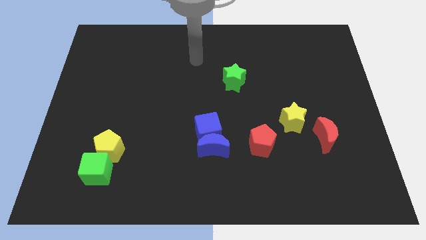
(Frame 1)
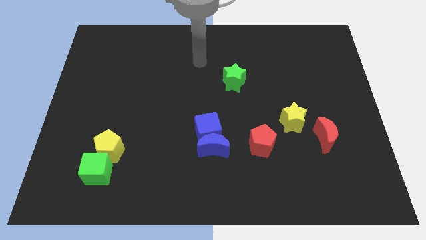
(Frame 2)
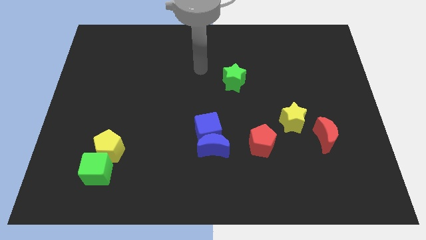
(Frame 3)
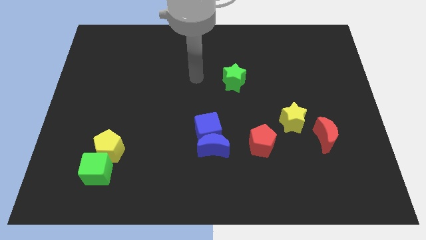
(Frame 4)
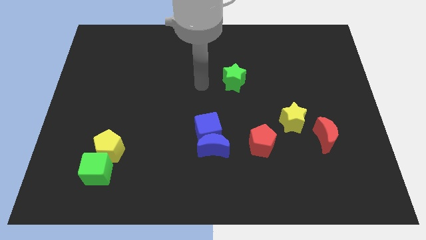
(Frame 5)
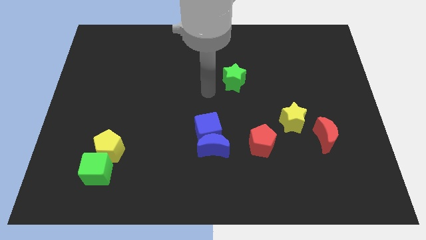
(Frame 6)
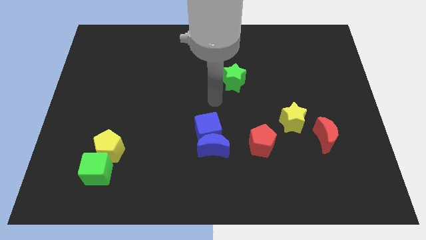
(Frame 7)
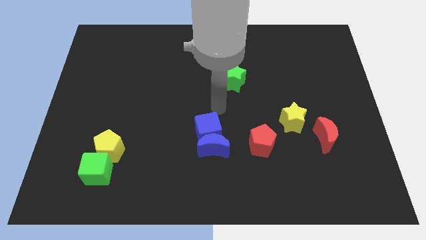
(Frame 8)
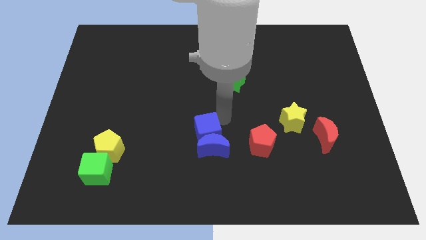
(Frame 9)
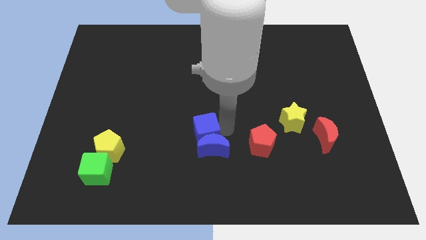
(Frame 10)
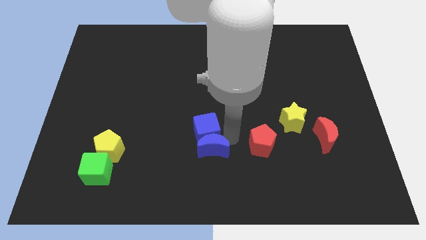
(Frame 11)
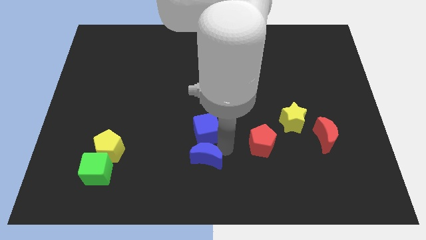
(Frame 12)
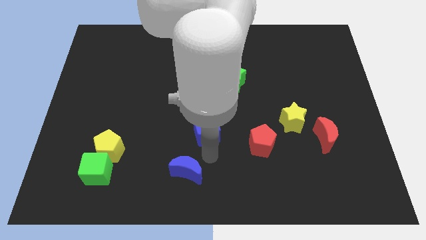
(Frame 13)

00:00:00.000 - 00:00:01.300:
separate the blue cube from the blue moon

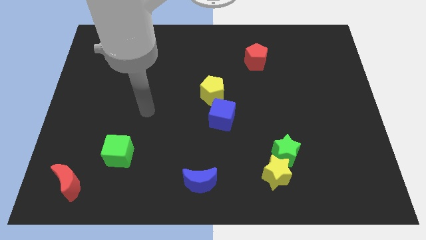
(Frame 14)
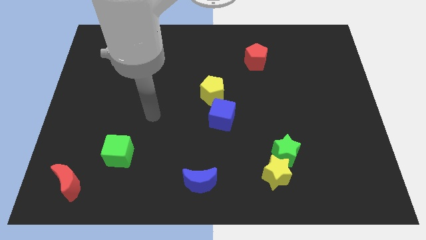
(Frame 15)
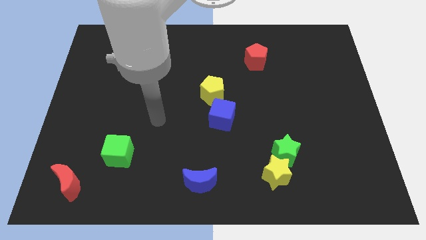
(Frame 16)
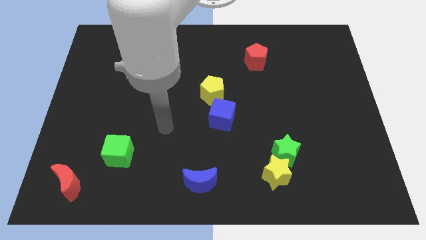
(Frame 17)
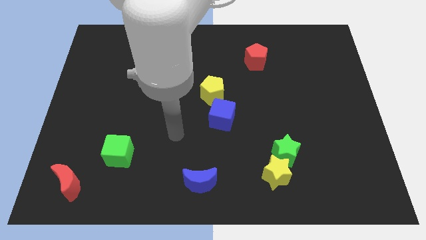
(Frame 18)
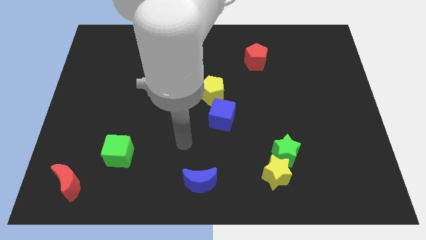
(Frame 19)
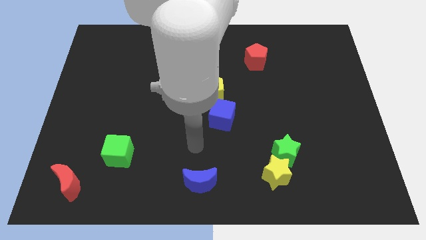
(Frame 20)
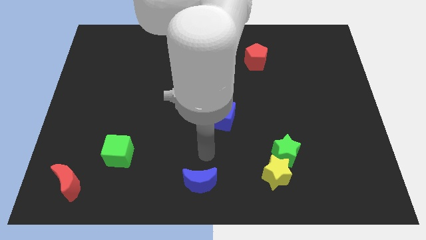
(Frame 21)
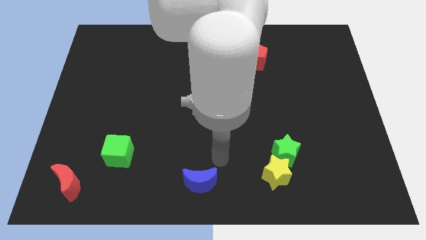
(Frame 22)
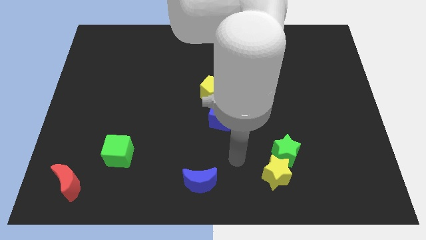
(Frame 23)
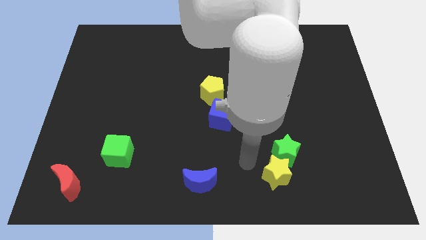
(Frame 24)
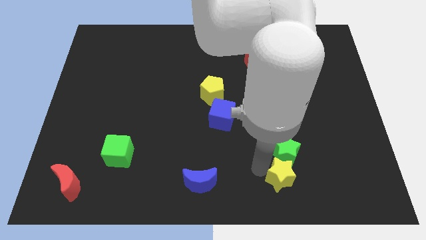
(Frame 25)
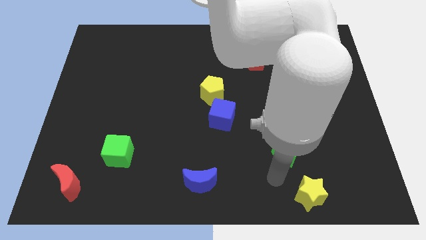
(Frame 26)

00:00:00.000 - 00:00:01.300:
pull the green star apart from the yellow star

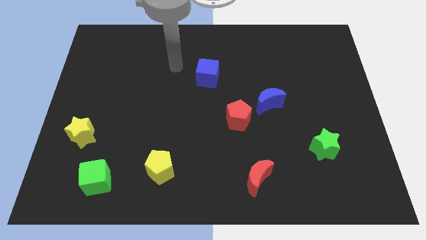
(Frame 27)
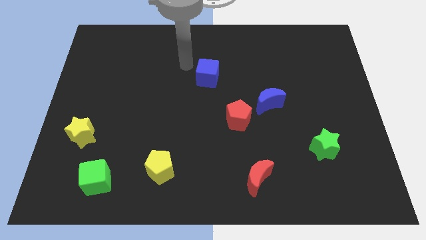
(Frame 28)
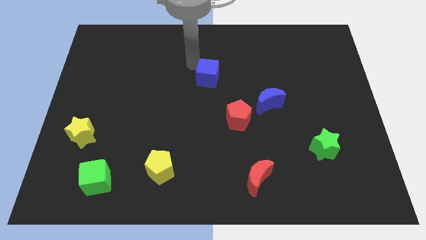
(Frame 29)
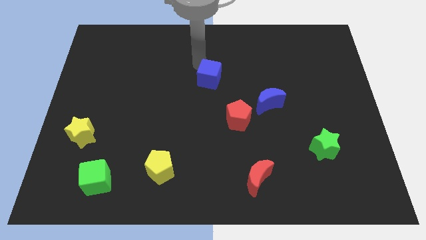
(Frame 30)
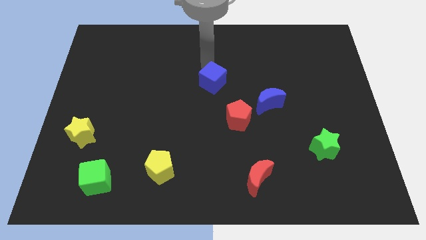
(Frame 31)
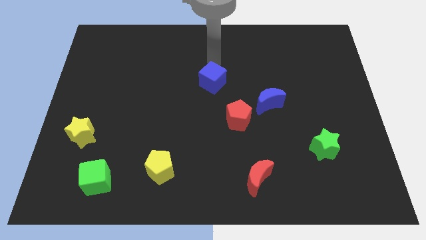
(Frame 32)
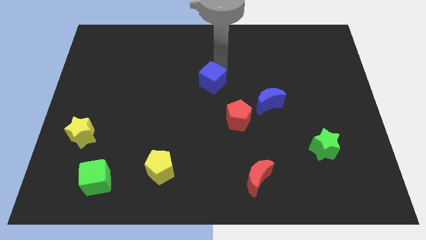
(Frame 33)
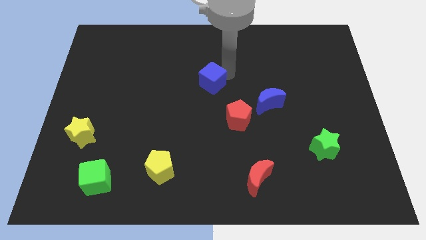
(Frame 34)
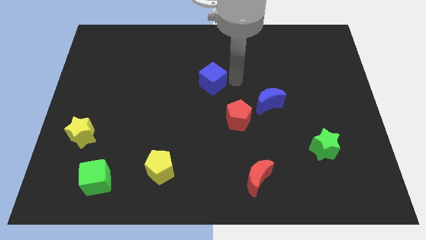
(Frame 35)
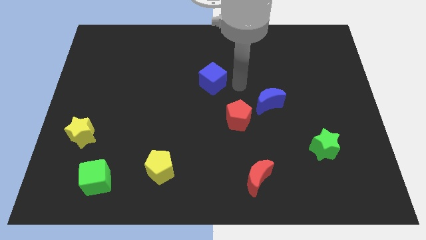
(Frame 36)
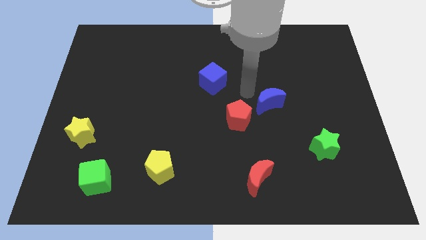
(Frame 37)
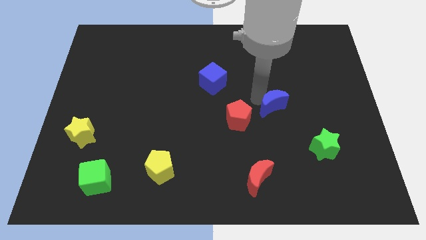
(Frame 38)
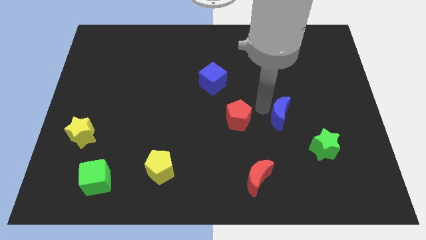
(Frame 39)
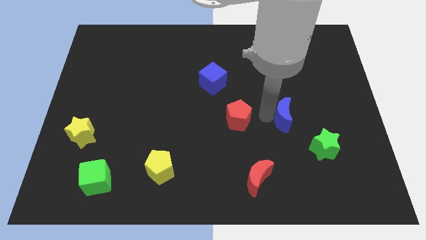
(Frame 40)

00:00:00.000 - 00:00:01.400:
move the red pentagon away from the blue moon

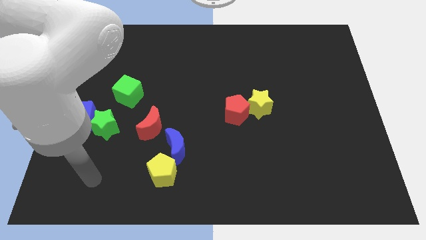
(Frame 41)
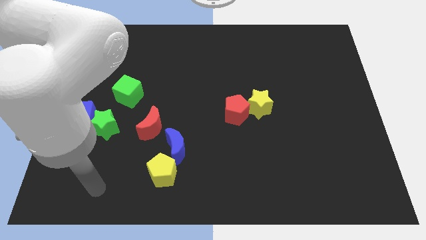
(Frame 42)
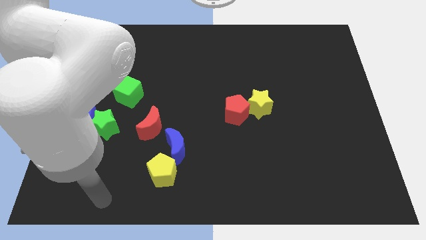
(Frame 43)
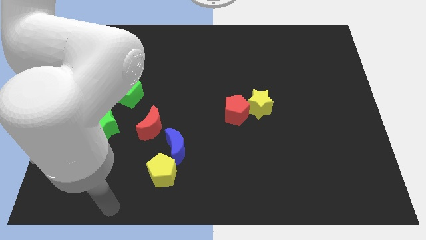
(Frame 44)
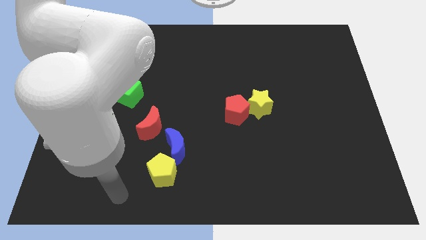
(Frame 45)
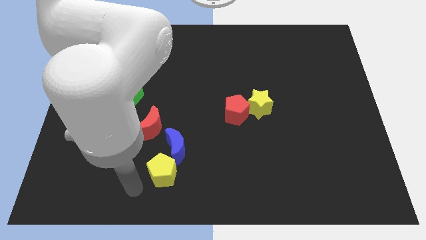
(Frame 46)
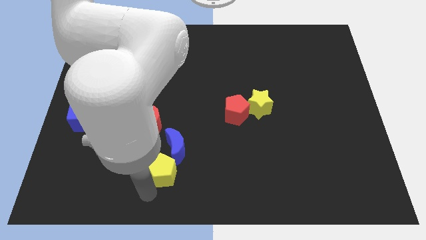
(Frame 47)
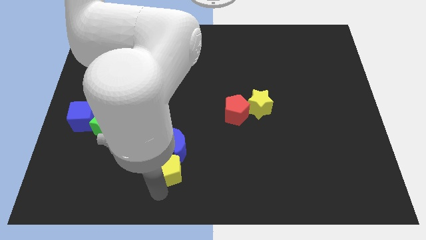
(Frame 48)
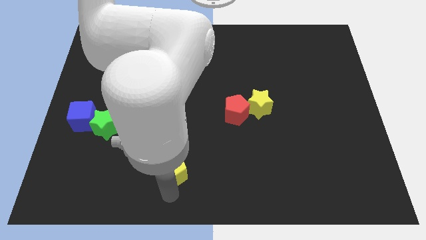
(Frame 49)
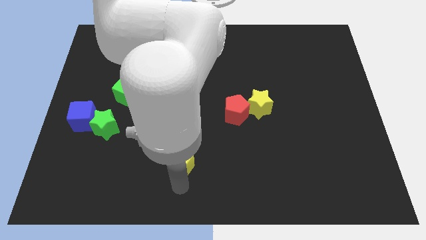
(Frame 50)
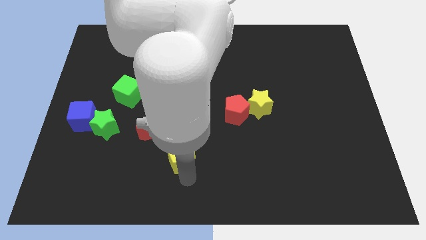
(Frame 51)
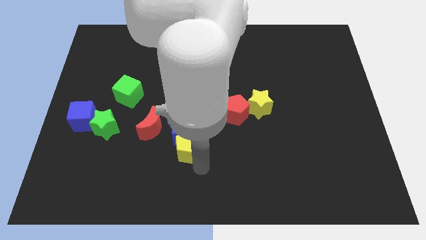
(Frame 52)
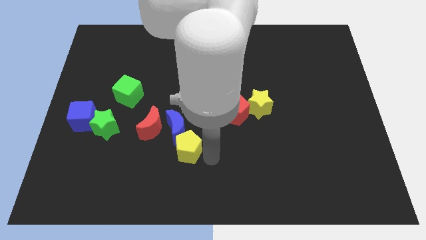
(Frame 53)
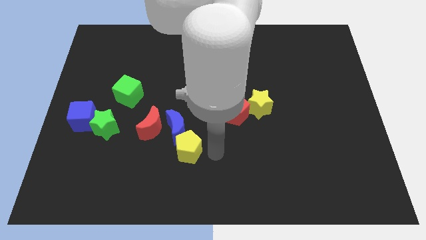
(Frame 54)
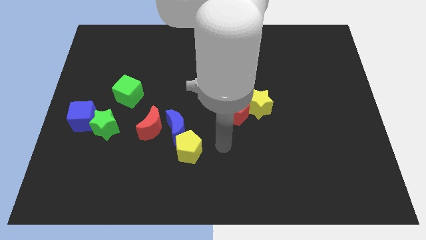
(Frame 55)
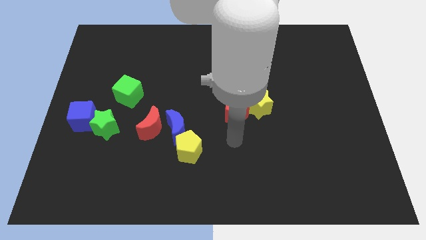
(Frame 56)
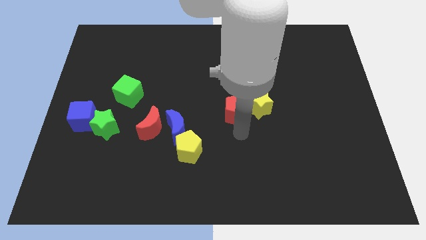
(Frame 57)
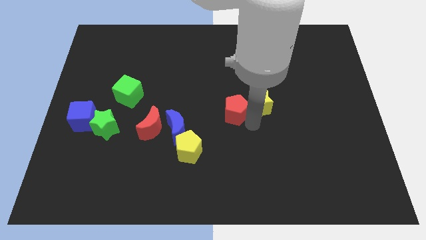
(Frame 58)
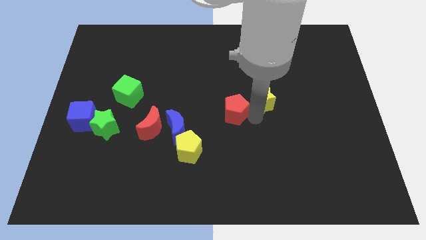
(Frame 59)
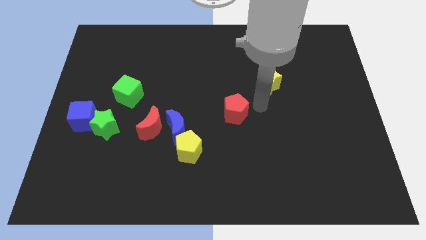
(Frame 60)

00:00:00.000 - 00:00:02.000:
move the red pentagon away from the yellow star

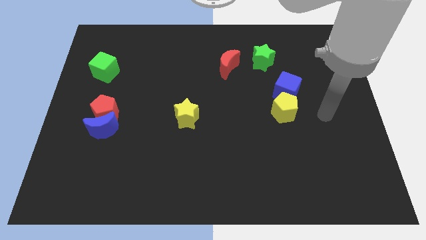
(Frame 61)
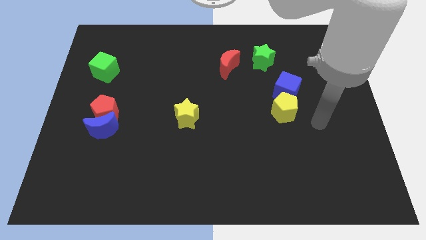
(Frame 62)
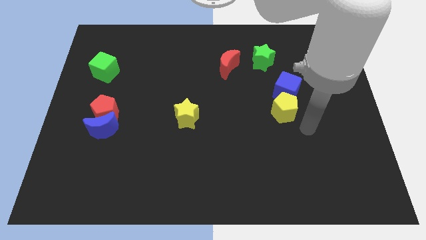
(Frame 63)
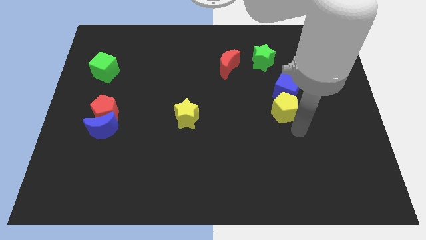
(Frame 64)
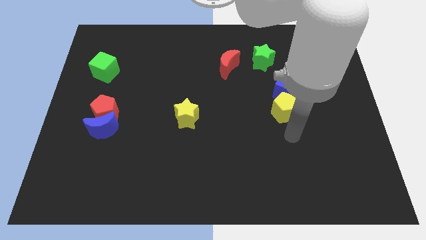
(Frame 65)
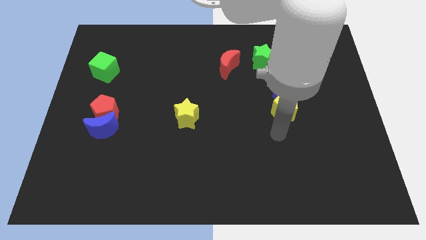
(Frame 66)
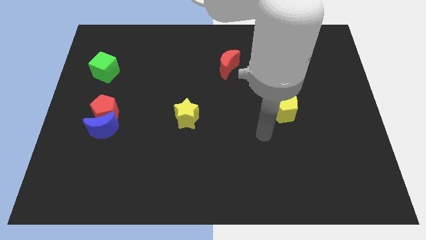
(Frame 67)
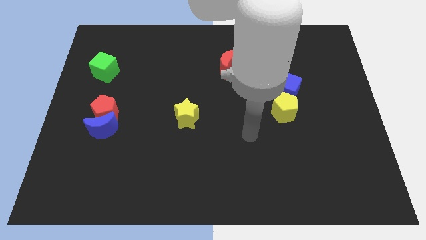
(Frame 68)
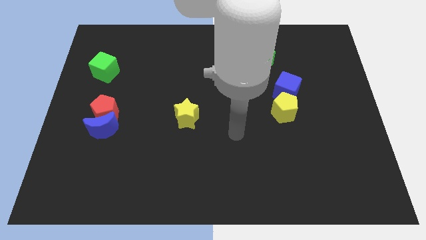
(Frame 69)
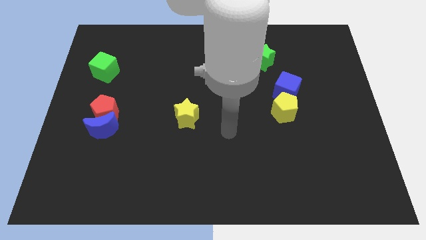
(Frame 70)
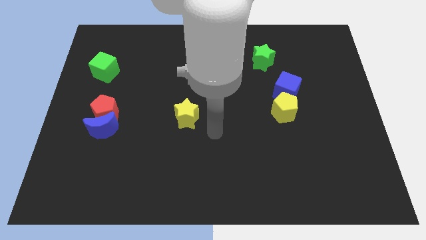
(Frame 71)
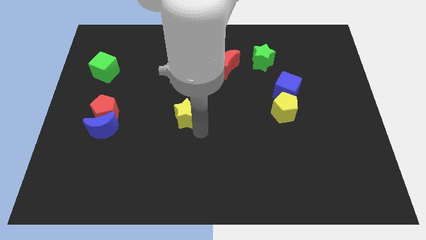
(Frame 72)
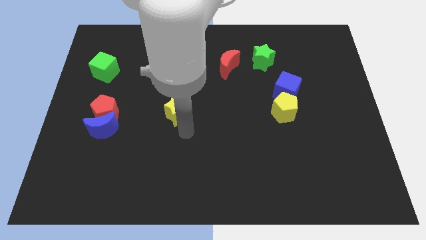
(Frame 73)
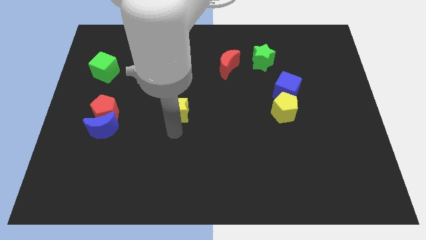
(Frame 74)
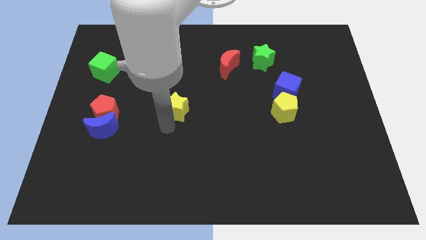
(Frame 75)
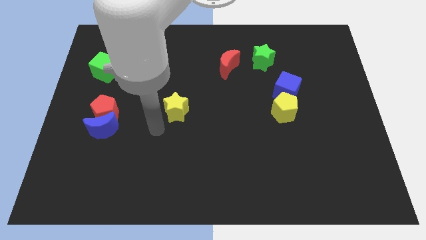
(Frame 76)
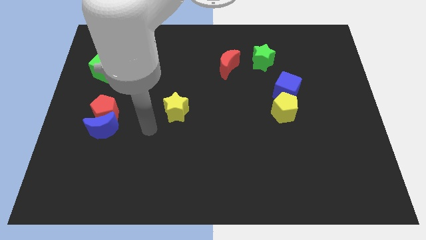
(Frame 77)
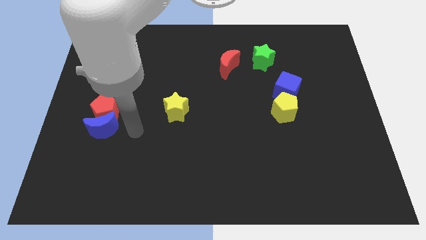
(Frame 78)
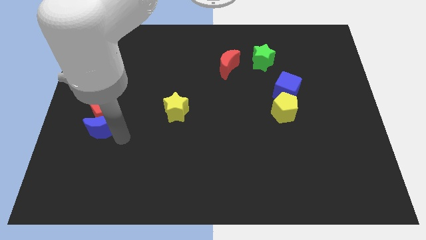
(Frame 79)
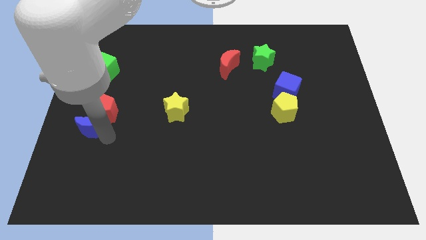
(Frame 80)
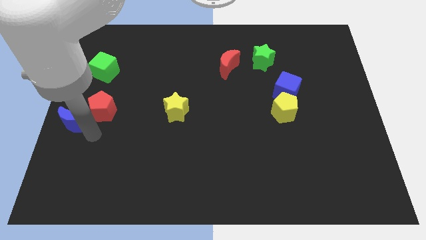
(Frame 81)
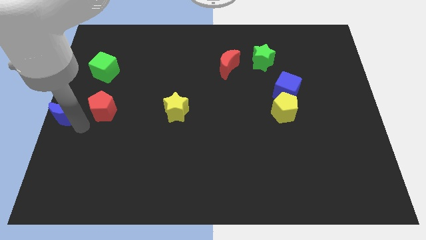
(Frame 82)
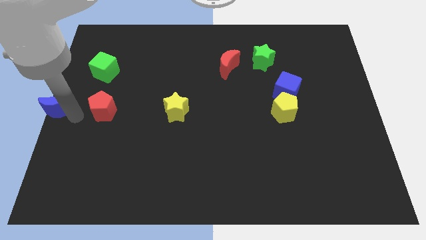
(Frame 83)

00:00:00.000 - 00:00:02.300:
separate the red pentagon from the blue moon

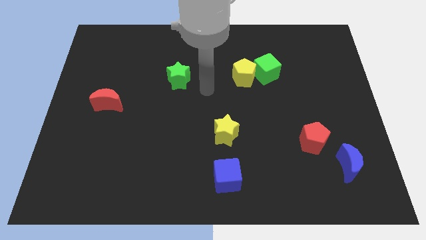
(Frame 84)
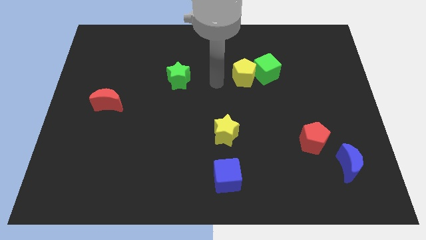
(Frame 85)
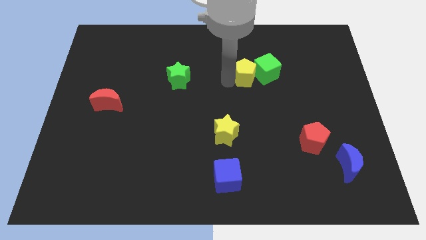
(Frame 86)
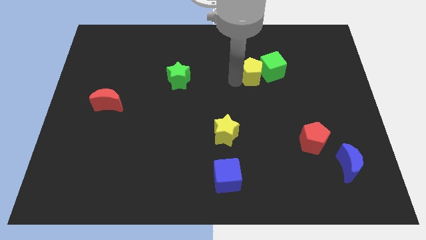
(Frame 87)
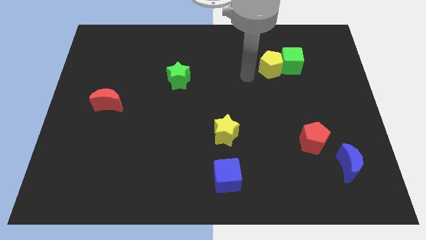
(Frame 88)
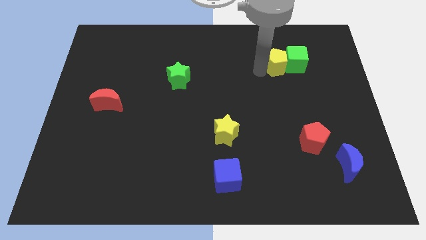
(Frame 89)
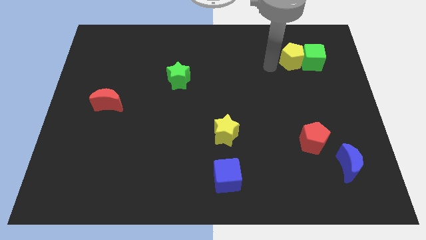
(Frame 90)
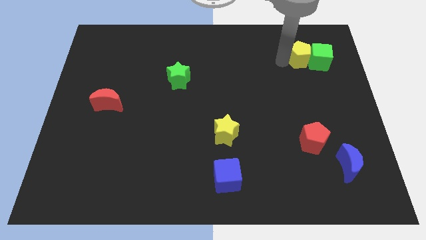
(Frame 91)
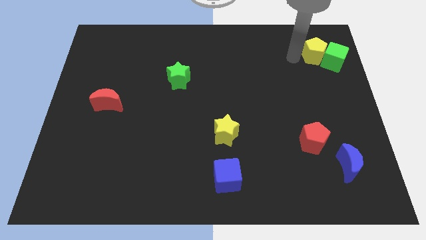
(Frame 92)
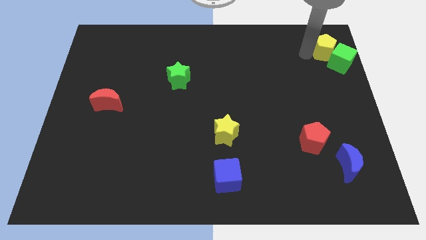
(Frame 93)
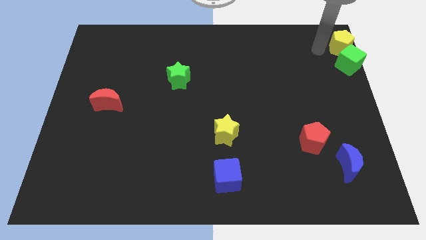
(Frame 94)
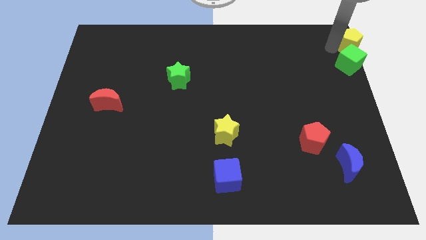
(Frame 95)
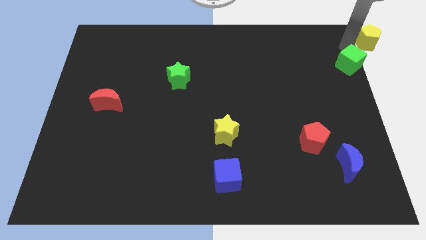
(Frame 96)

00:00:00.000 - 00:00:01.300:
move the green cube away from the yellow pentagon
